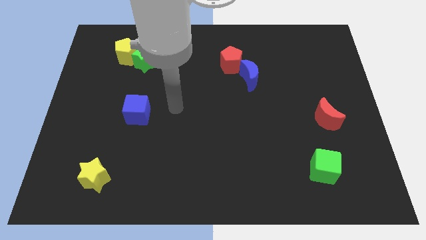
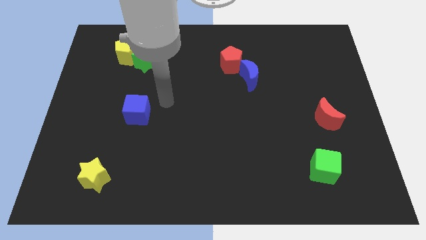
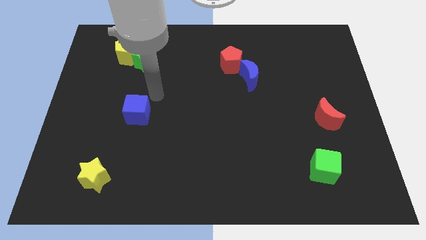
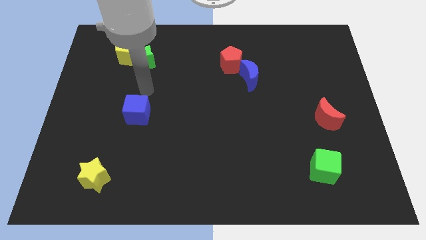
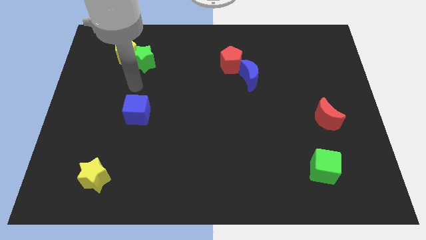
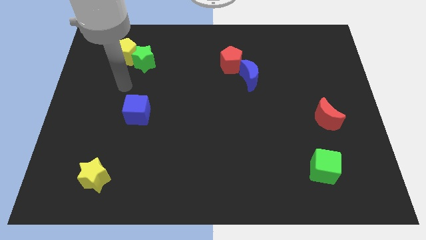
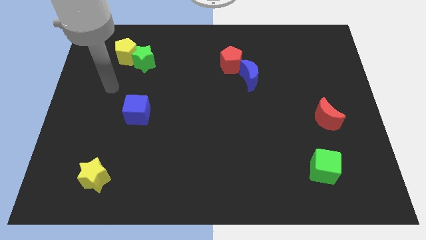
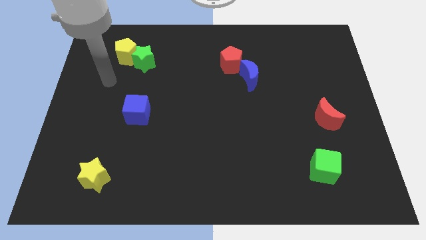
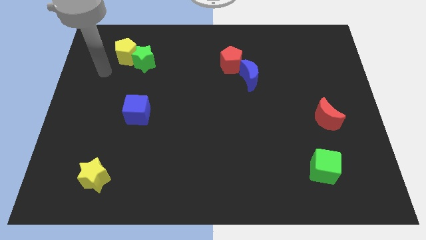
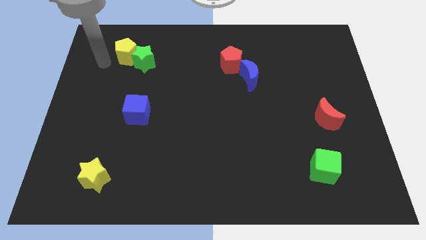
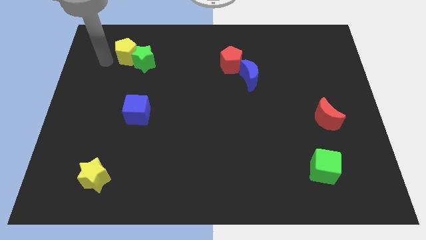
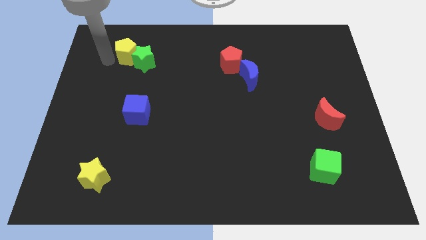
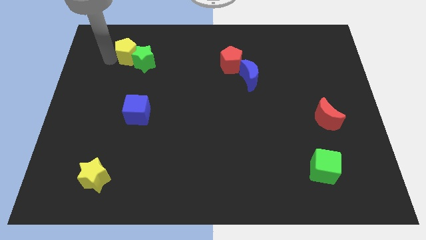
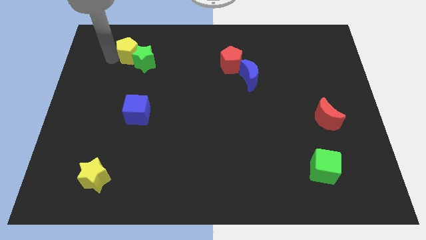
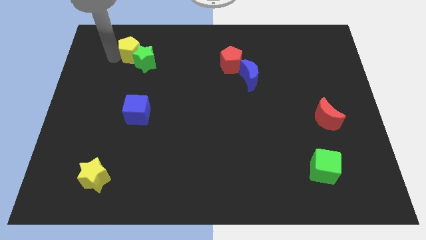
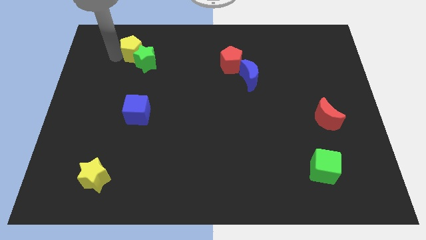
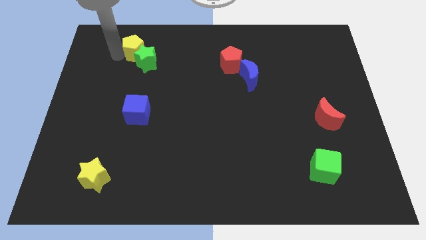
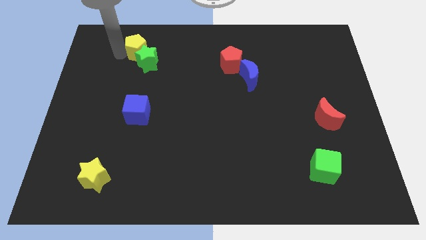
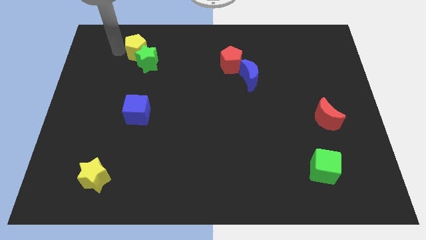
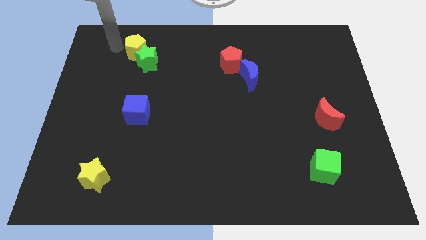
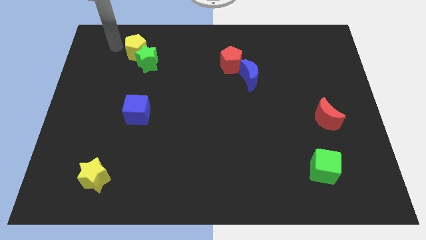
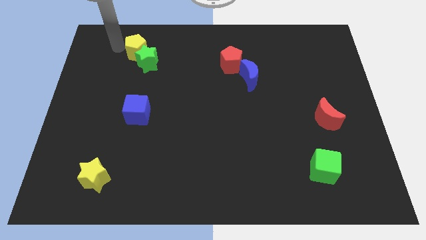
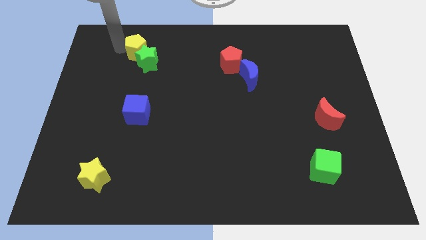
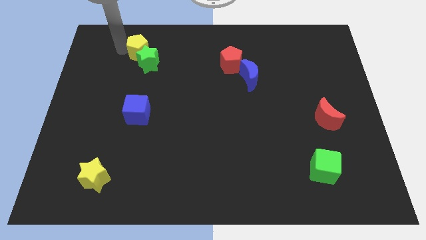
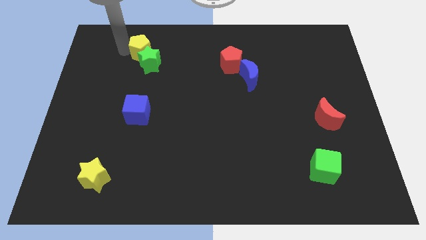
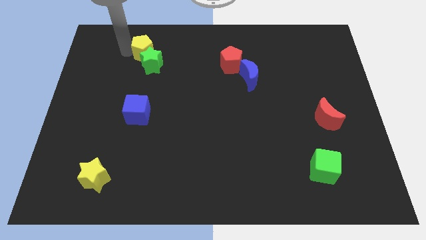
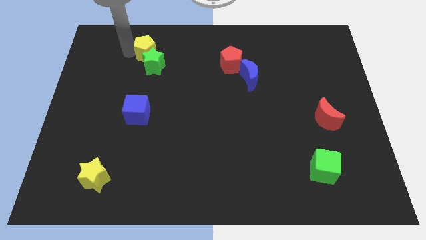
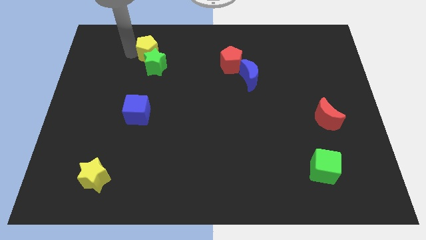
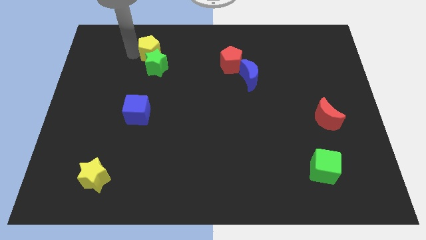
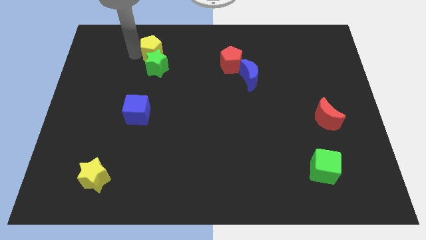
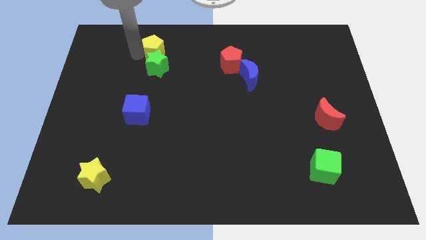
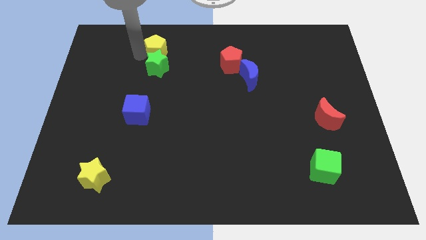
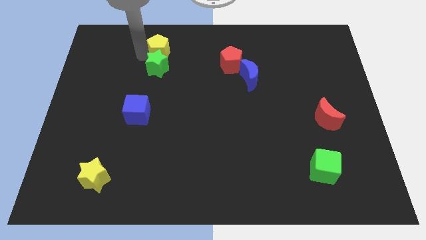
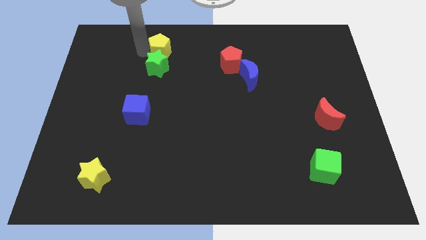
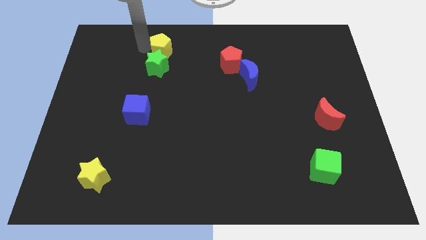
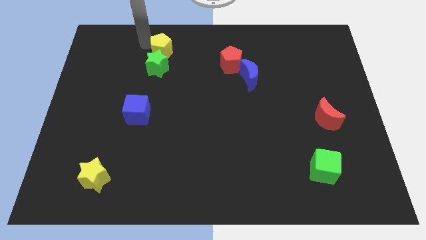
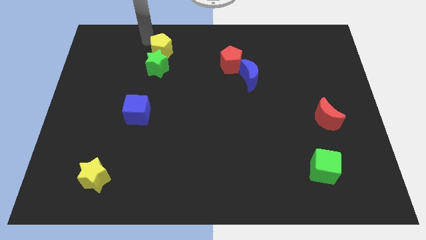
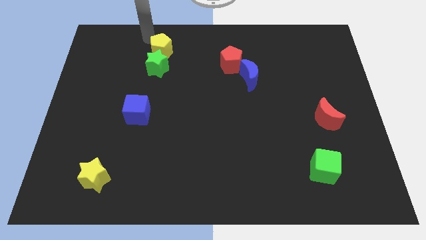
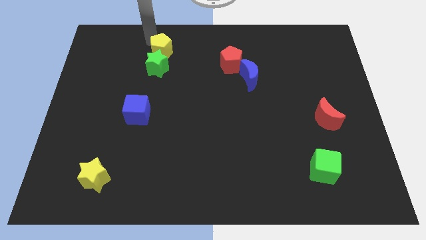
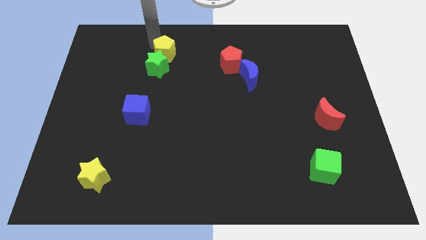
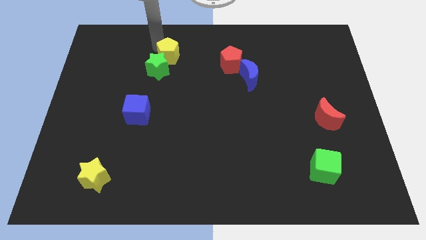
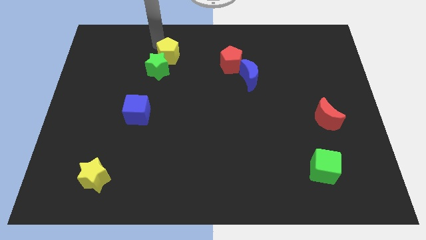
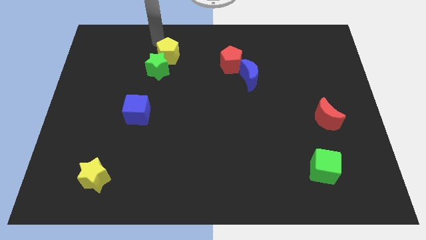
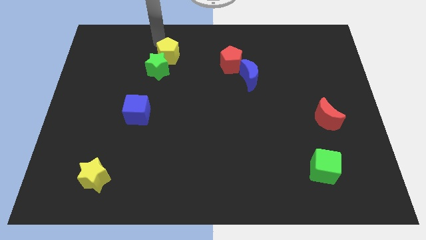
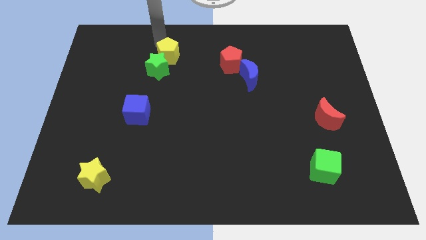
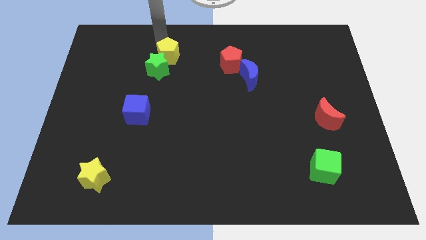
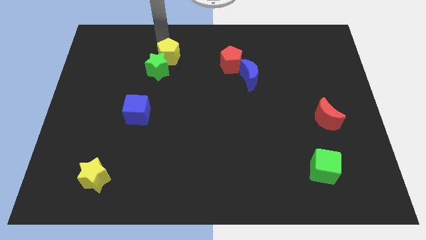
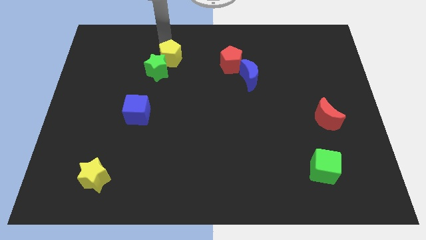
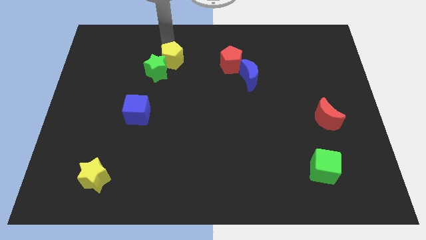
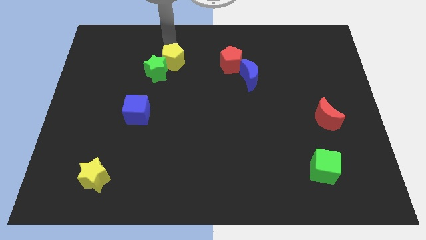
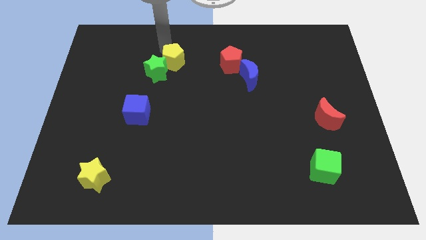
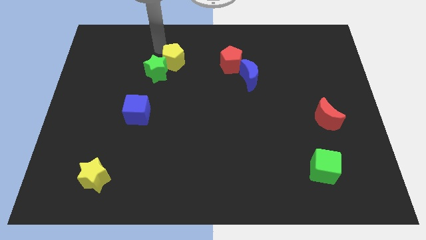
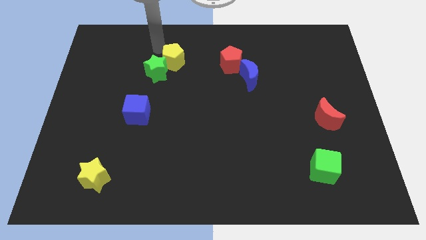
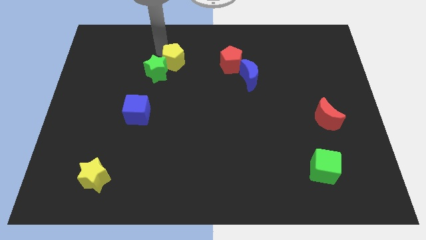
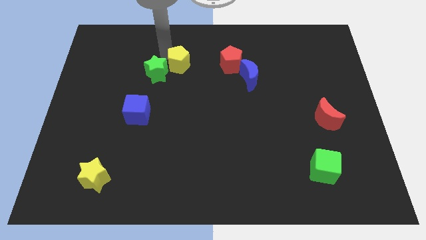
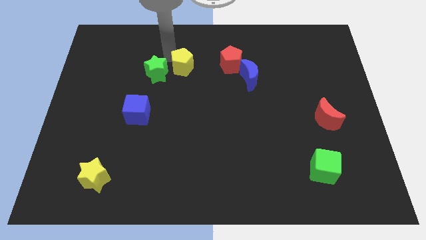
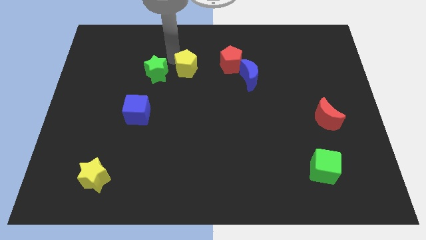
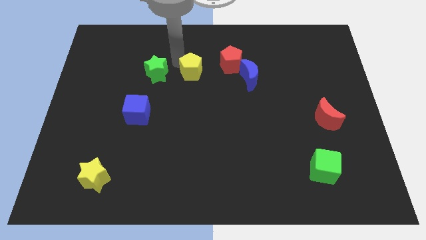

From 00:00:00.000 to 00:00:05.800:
put the yellow pentagon to the left of the blue moon
